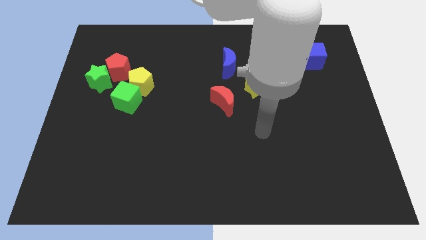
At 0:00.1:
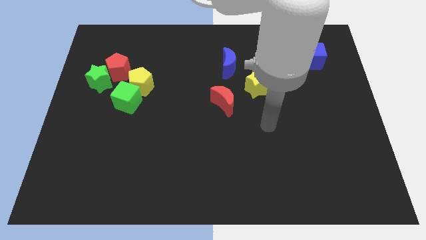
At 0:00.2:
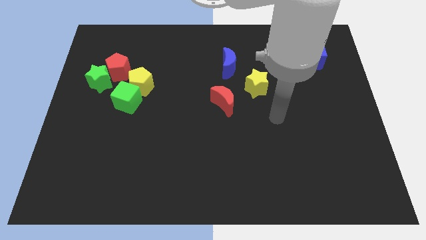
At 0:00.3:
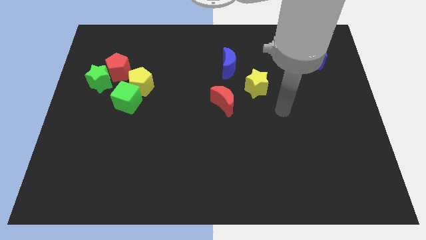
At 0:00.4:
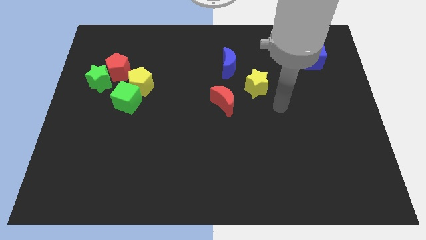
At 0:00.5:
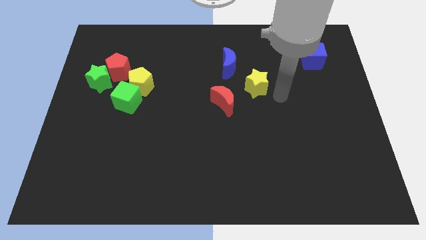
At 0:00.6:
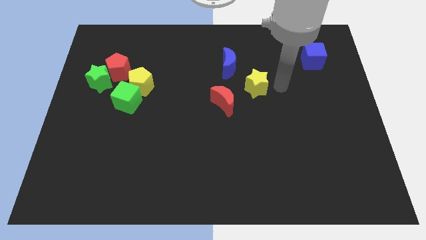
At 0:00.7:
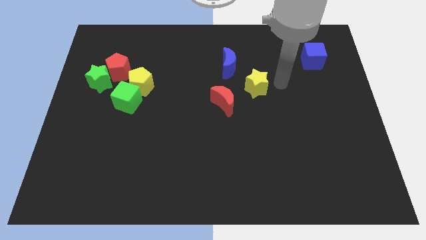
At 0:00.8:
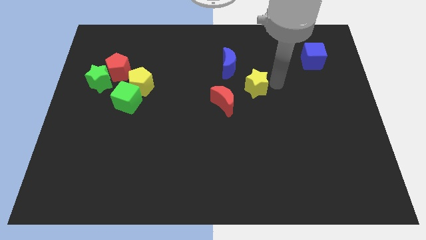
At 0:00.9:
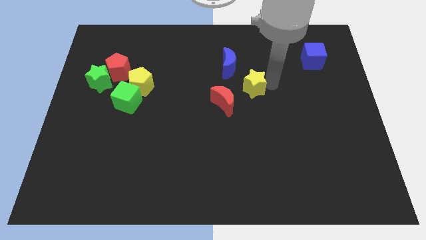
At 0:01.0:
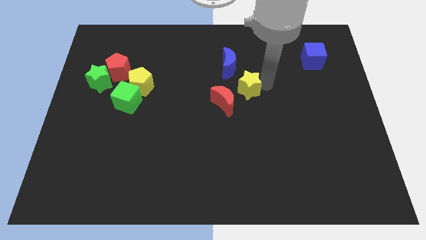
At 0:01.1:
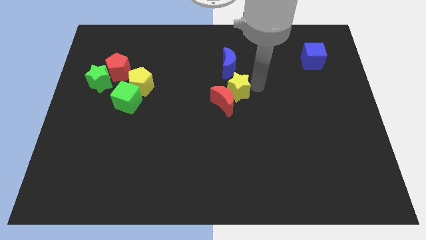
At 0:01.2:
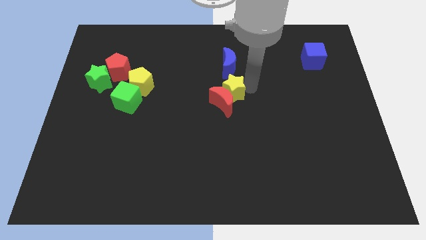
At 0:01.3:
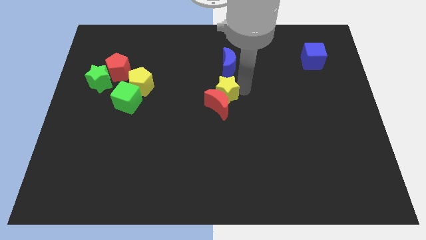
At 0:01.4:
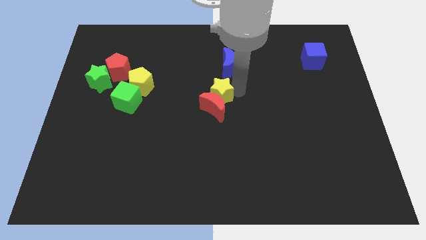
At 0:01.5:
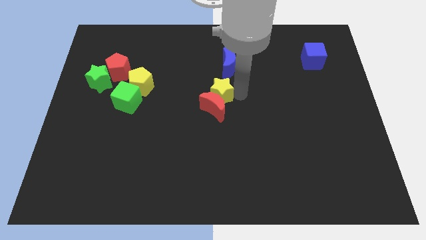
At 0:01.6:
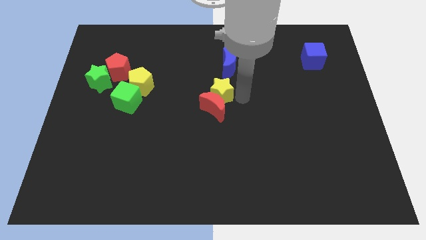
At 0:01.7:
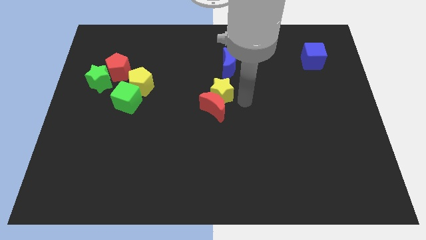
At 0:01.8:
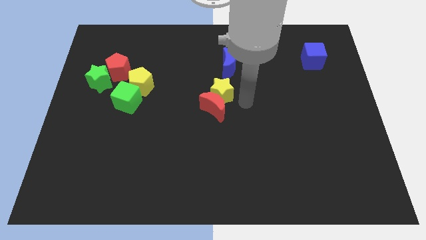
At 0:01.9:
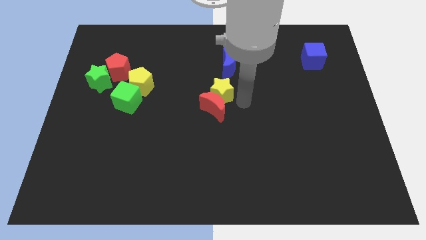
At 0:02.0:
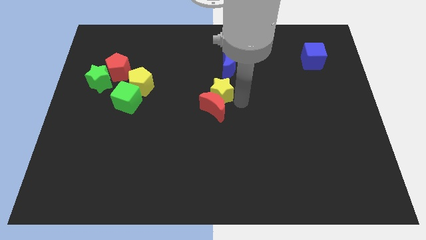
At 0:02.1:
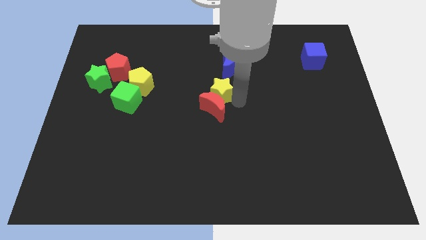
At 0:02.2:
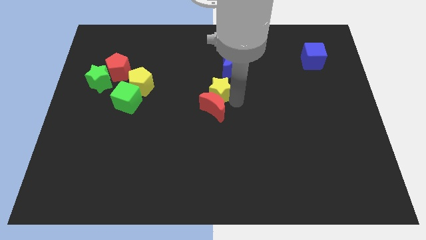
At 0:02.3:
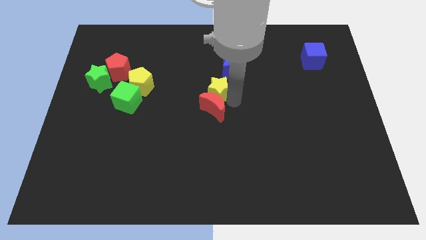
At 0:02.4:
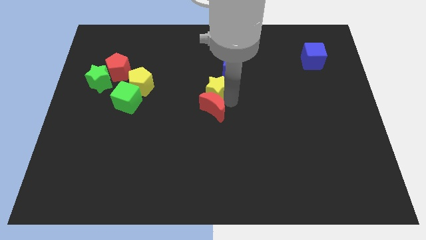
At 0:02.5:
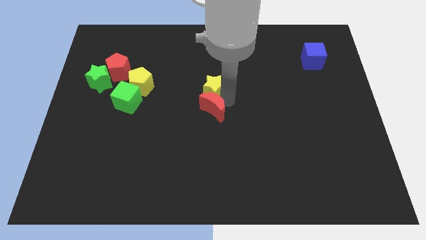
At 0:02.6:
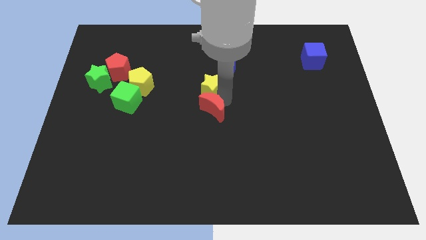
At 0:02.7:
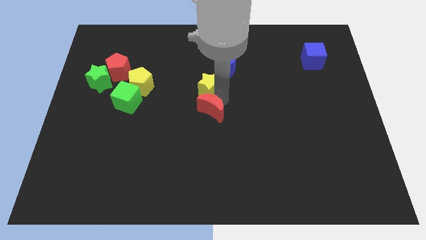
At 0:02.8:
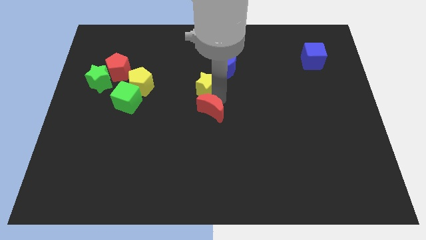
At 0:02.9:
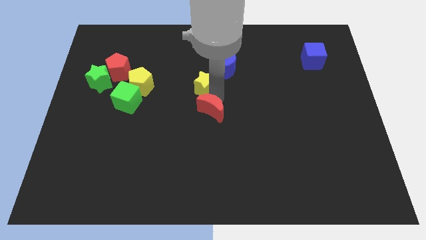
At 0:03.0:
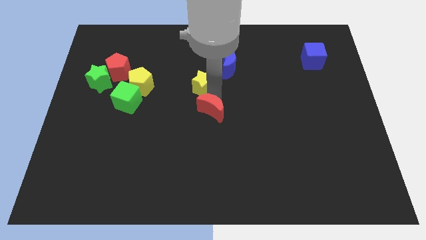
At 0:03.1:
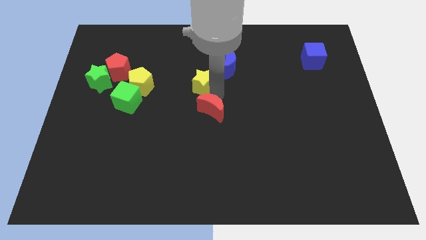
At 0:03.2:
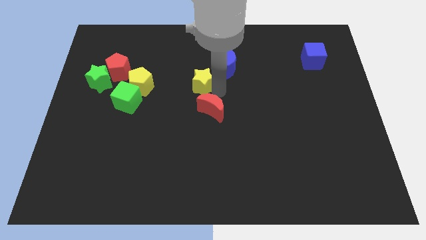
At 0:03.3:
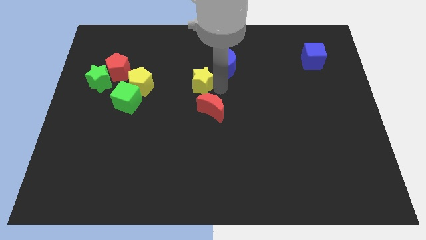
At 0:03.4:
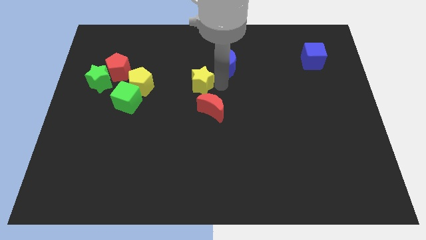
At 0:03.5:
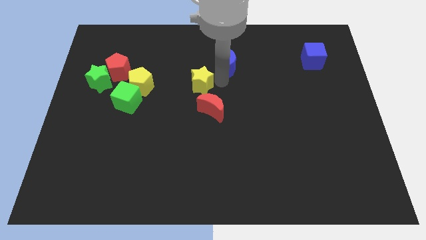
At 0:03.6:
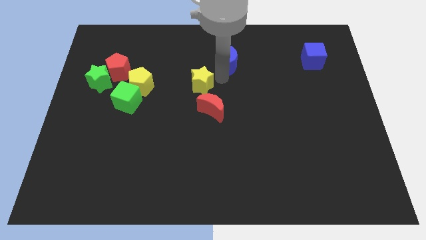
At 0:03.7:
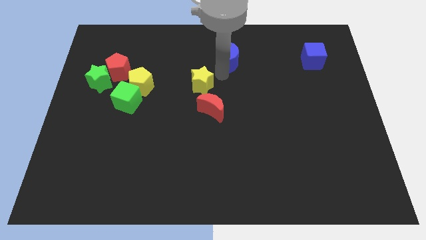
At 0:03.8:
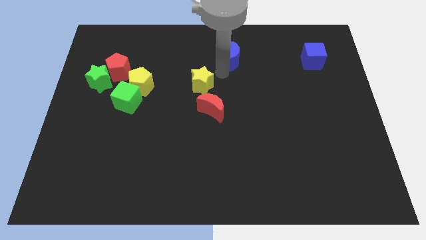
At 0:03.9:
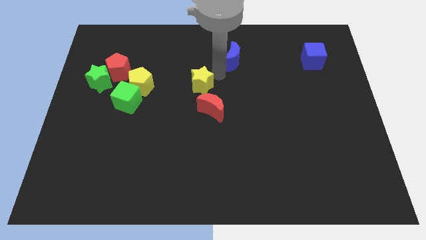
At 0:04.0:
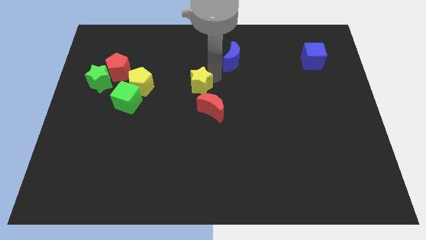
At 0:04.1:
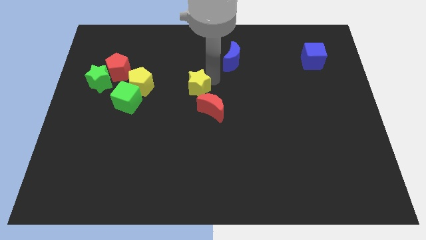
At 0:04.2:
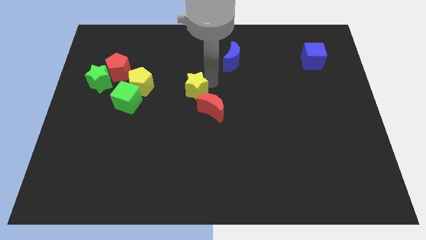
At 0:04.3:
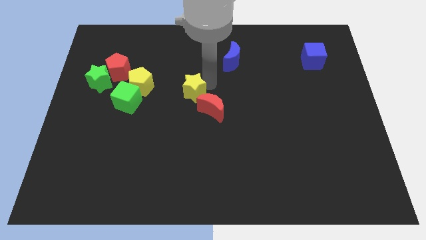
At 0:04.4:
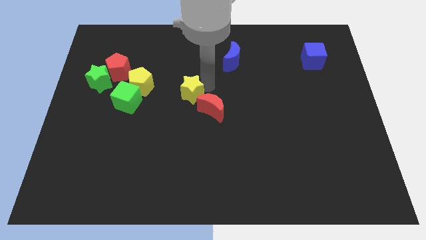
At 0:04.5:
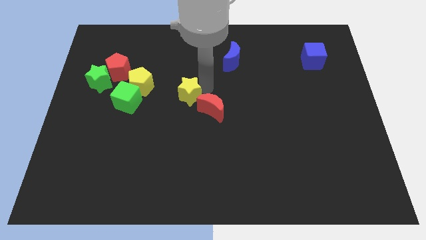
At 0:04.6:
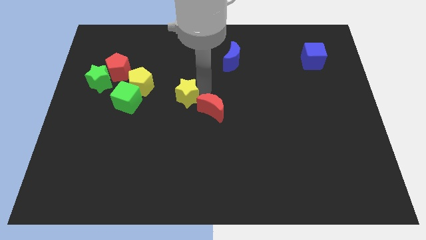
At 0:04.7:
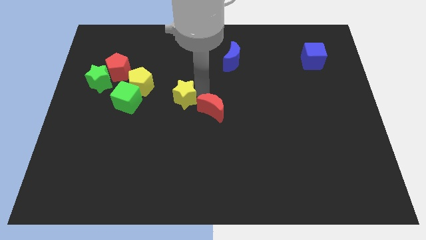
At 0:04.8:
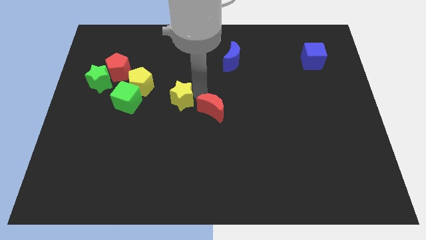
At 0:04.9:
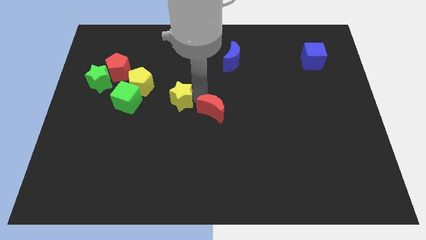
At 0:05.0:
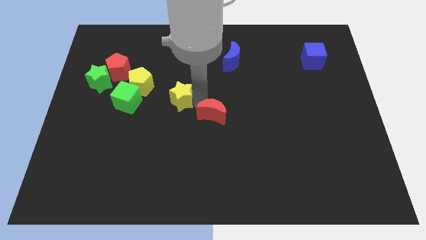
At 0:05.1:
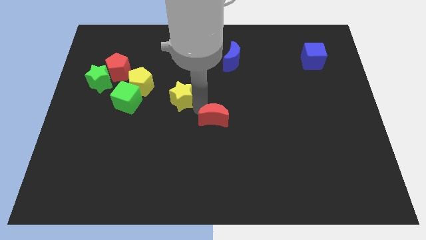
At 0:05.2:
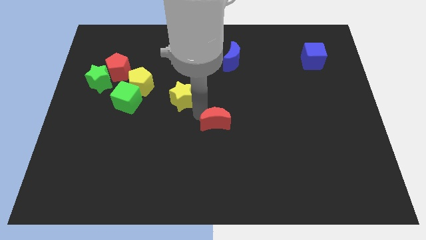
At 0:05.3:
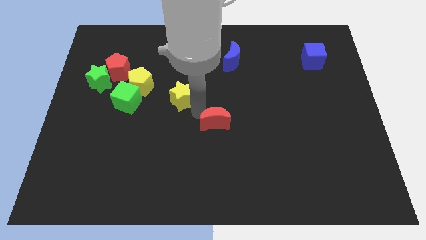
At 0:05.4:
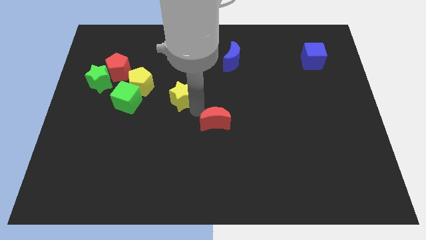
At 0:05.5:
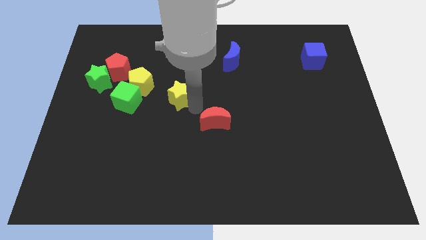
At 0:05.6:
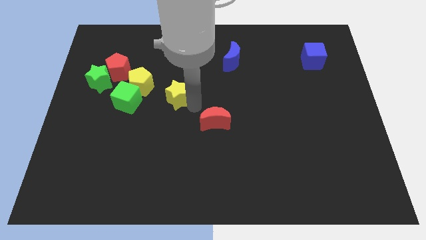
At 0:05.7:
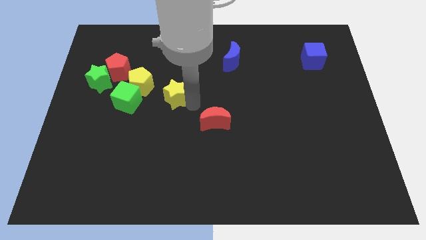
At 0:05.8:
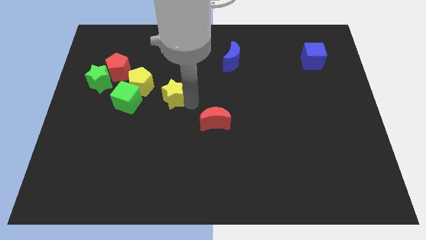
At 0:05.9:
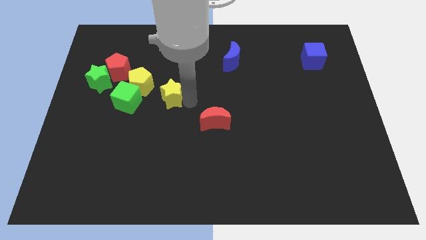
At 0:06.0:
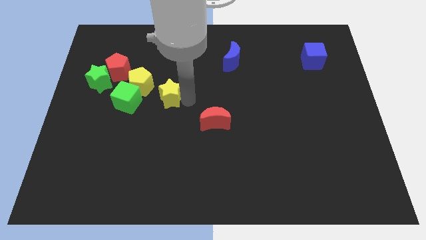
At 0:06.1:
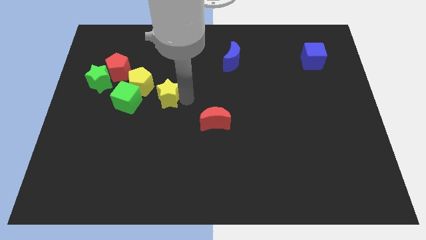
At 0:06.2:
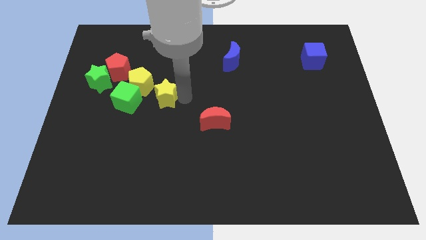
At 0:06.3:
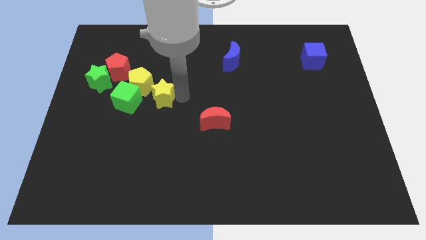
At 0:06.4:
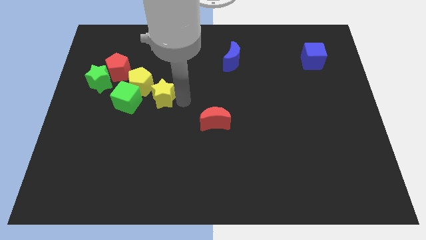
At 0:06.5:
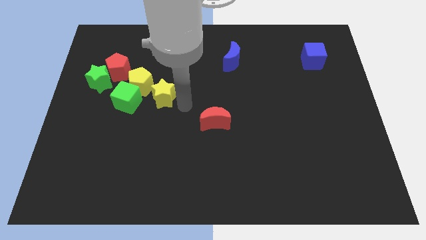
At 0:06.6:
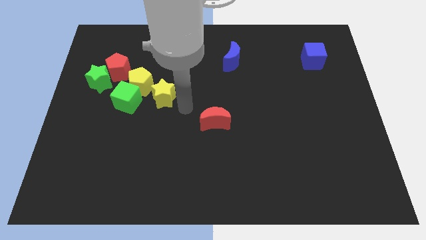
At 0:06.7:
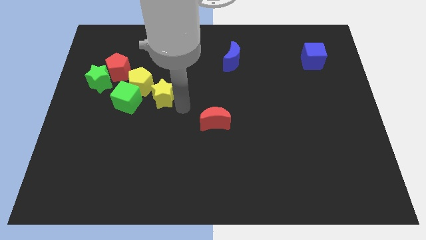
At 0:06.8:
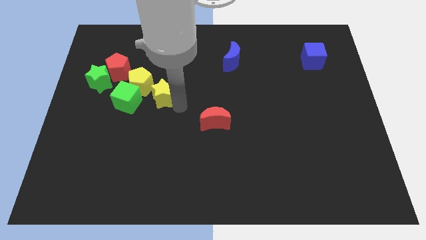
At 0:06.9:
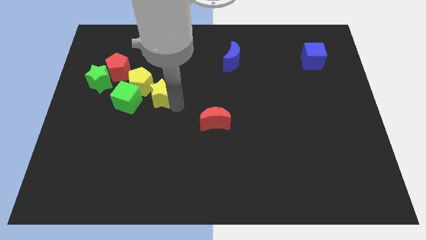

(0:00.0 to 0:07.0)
slide the yellow star to the yellow pentagon

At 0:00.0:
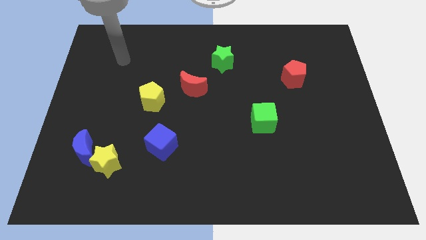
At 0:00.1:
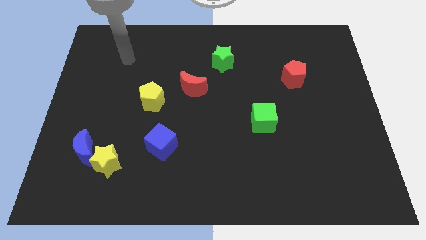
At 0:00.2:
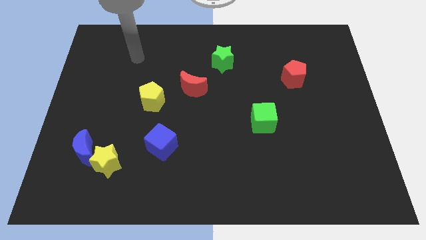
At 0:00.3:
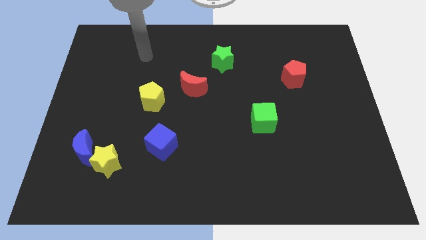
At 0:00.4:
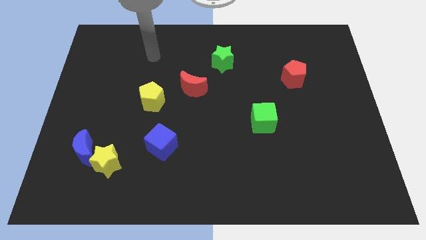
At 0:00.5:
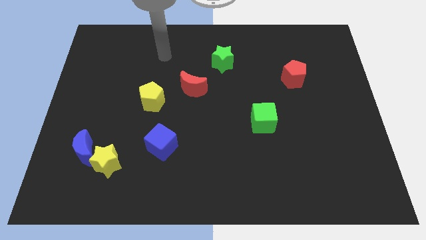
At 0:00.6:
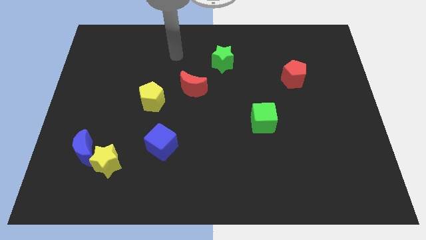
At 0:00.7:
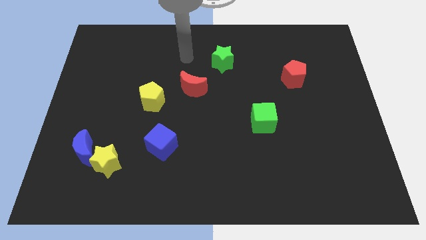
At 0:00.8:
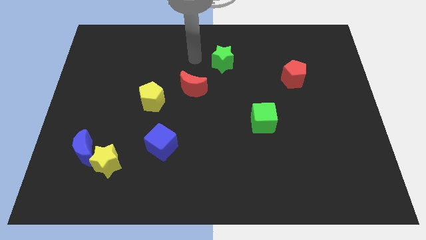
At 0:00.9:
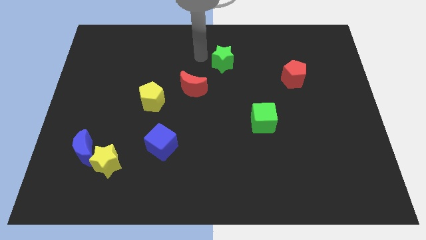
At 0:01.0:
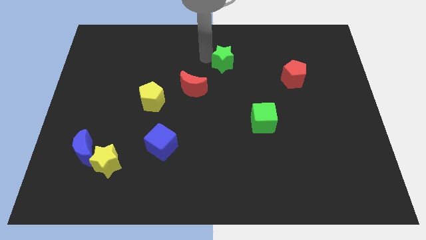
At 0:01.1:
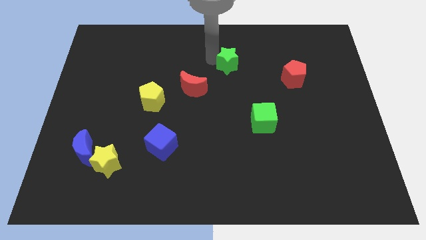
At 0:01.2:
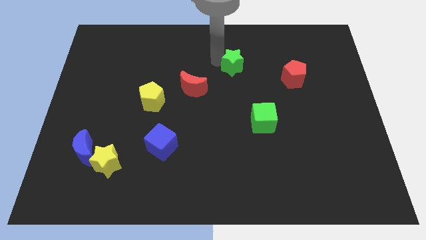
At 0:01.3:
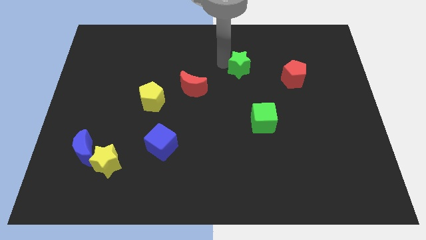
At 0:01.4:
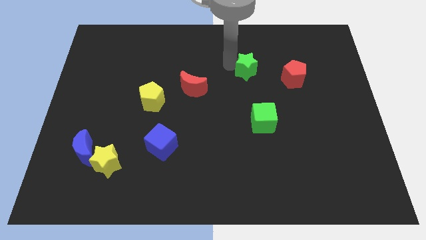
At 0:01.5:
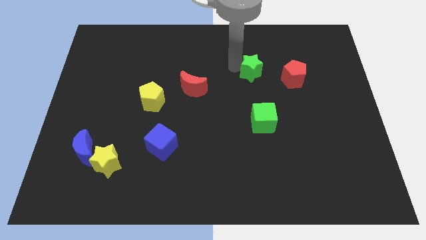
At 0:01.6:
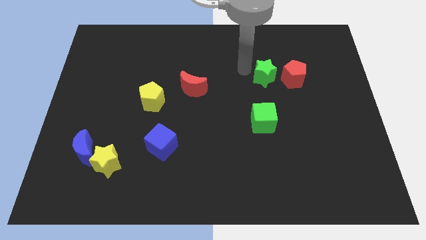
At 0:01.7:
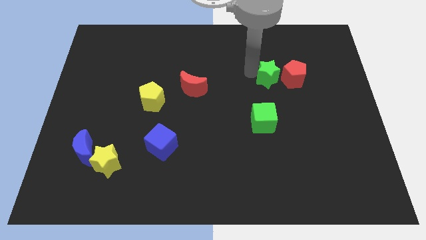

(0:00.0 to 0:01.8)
slide the green star towards the red pentagon
